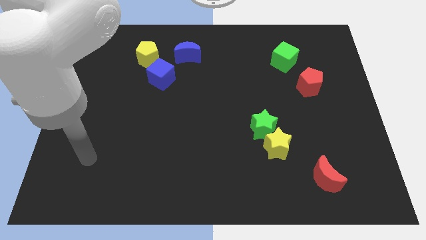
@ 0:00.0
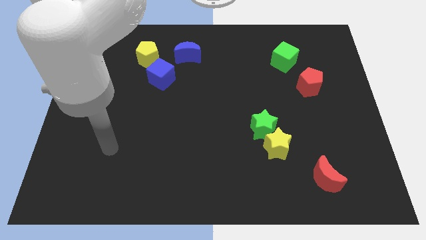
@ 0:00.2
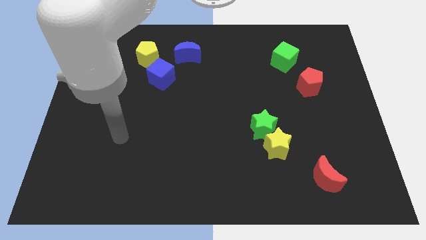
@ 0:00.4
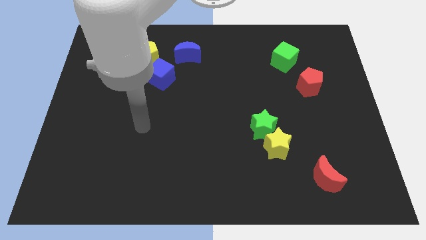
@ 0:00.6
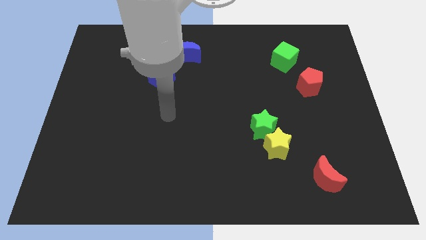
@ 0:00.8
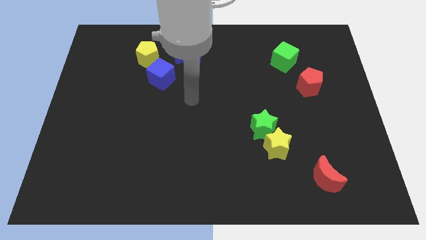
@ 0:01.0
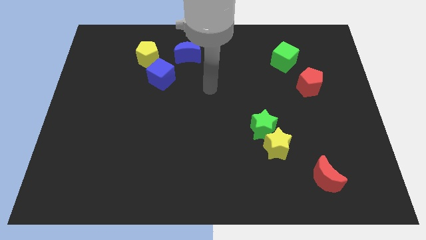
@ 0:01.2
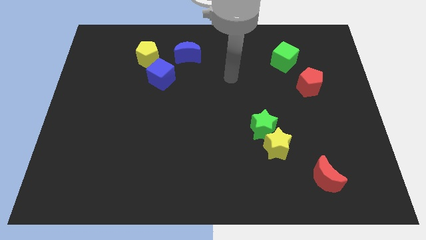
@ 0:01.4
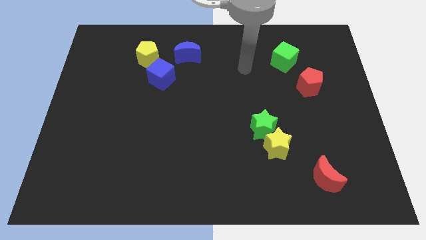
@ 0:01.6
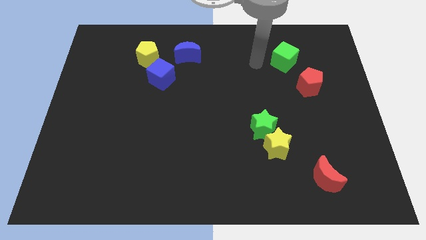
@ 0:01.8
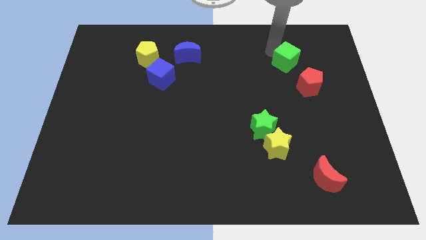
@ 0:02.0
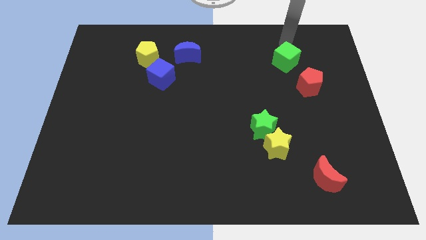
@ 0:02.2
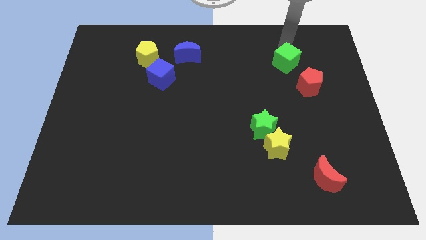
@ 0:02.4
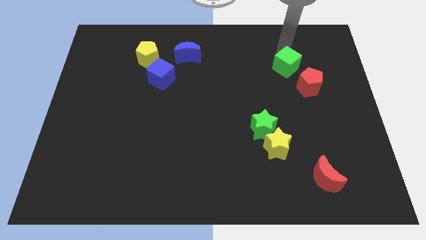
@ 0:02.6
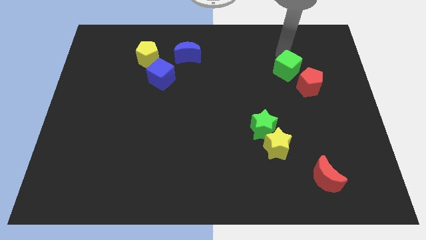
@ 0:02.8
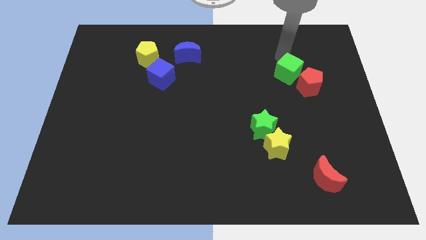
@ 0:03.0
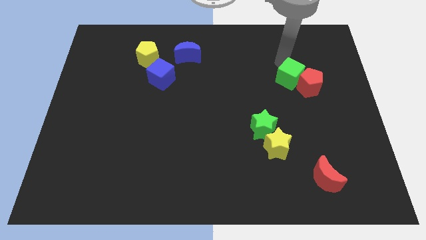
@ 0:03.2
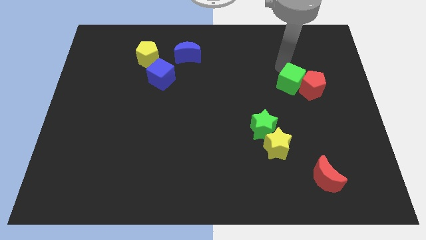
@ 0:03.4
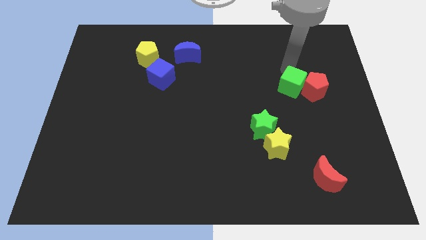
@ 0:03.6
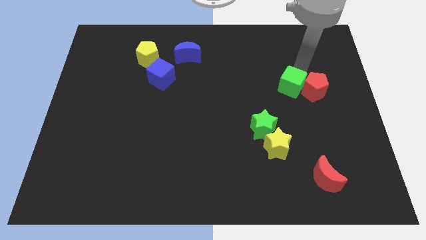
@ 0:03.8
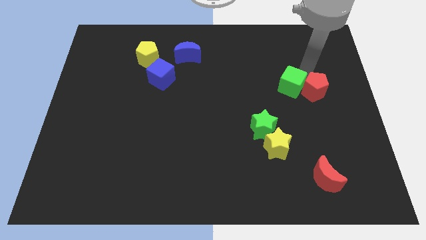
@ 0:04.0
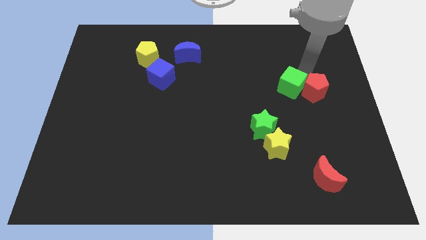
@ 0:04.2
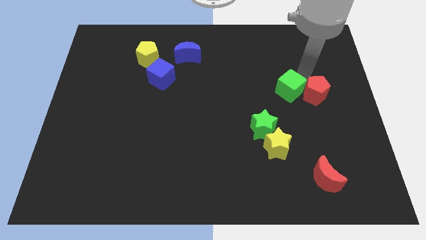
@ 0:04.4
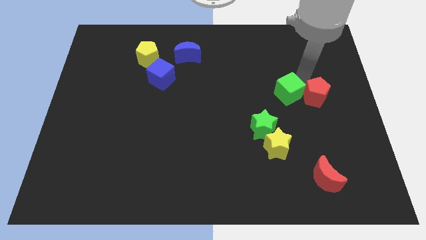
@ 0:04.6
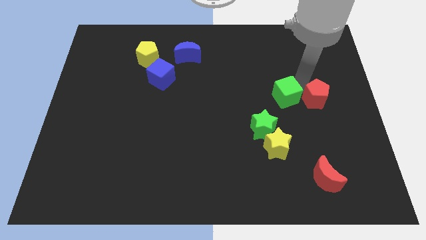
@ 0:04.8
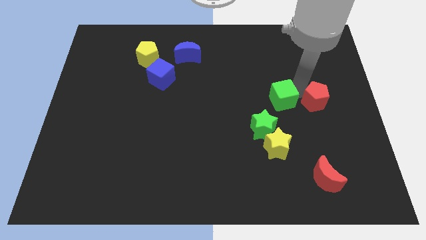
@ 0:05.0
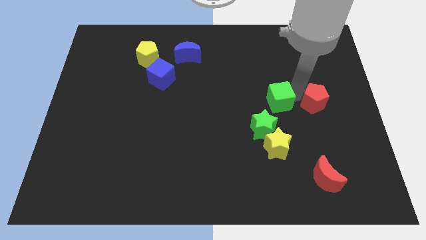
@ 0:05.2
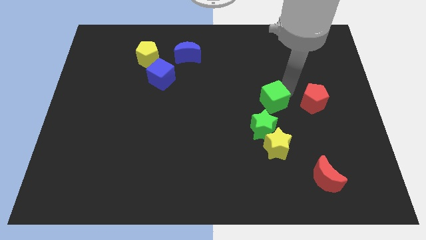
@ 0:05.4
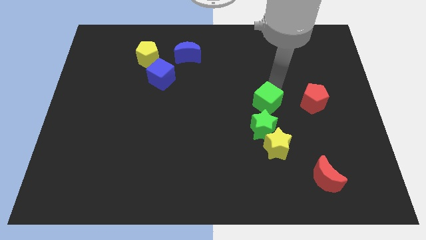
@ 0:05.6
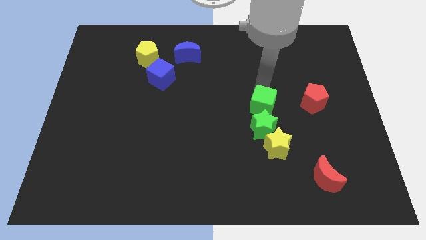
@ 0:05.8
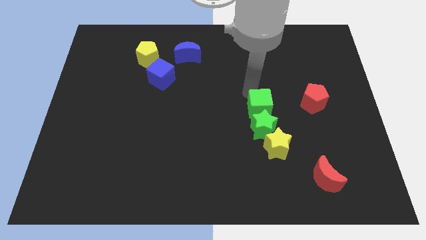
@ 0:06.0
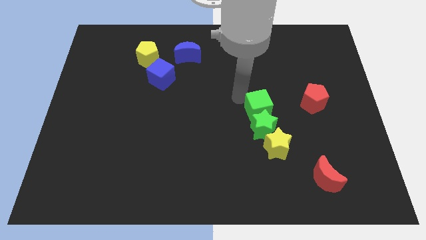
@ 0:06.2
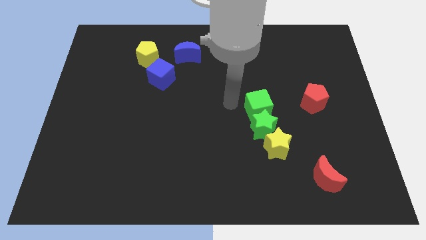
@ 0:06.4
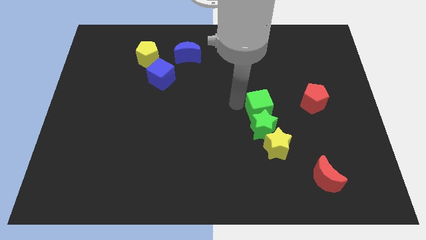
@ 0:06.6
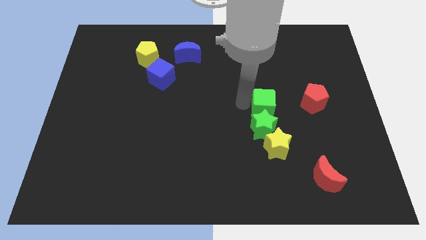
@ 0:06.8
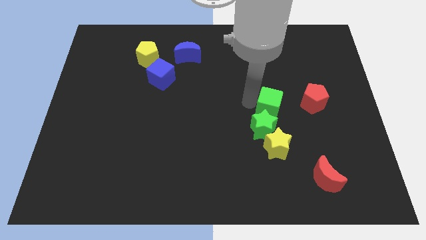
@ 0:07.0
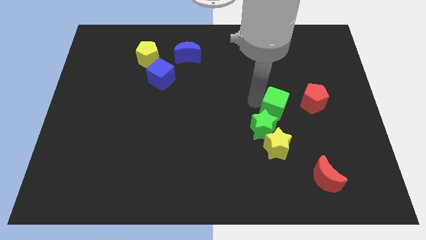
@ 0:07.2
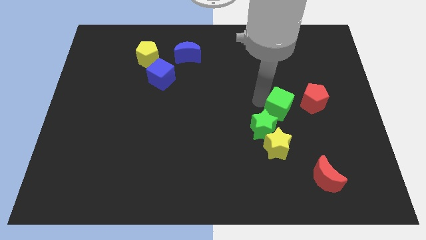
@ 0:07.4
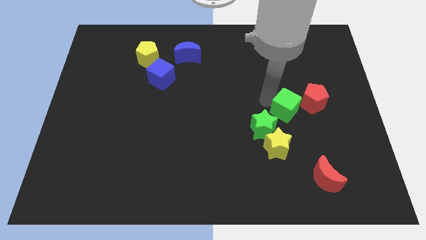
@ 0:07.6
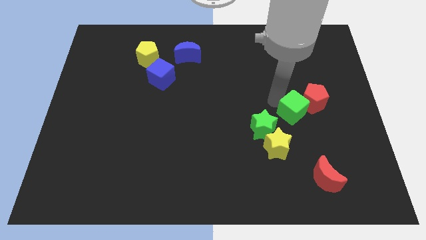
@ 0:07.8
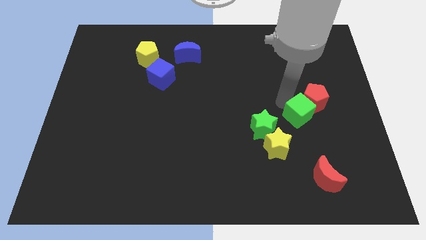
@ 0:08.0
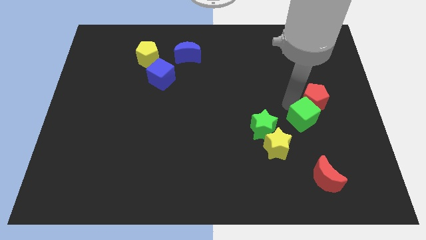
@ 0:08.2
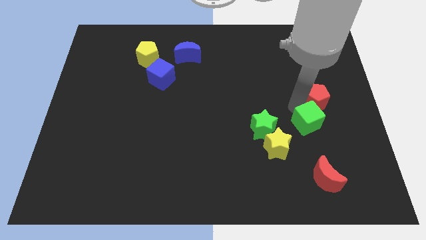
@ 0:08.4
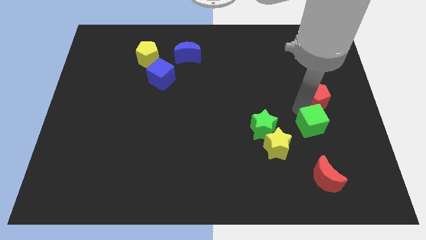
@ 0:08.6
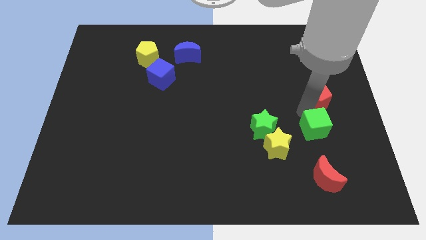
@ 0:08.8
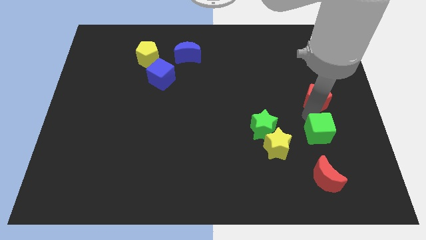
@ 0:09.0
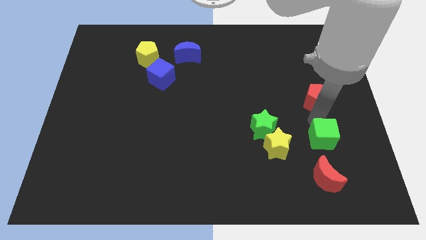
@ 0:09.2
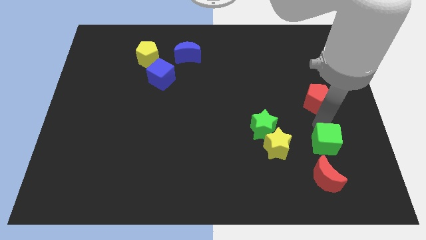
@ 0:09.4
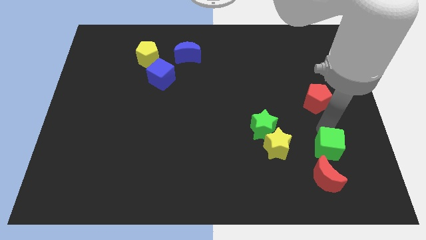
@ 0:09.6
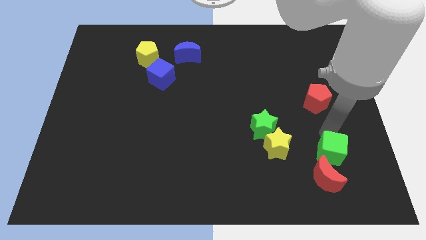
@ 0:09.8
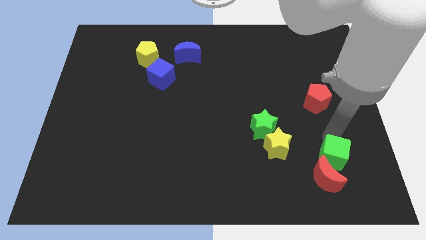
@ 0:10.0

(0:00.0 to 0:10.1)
push the green cube to the red moon

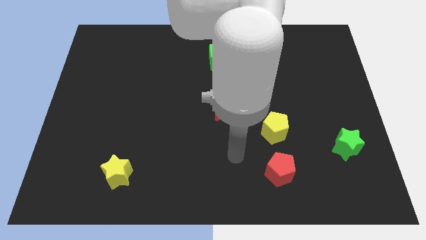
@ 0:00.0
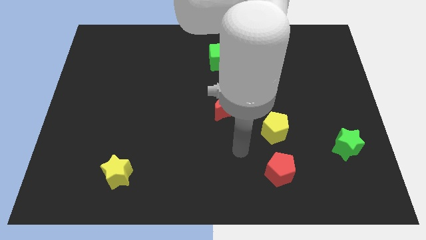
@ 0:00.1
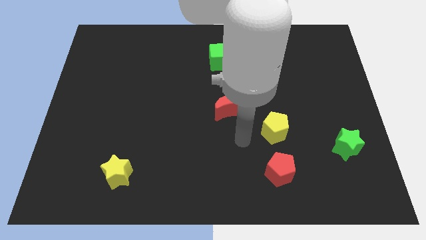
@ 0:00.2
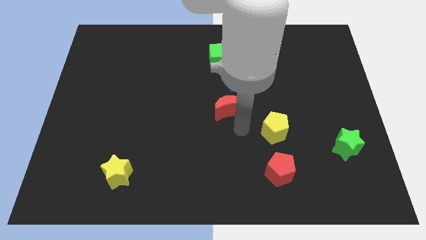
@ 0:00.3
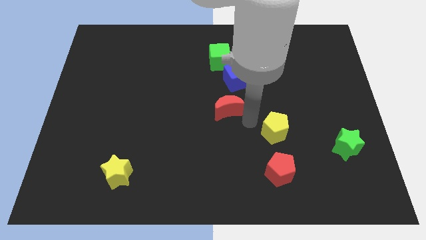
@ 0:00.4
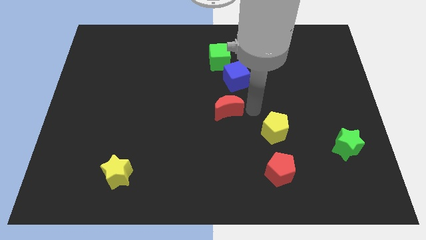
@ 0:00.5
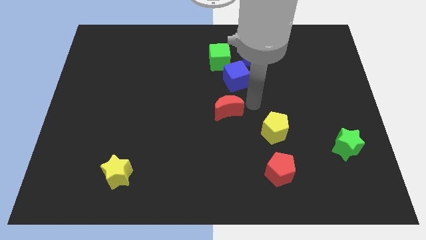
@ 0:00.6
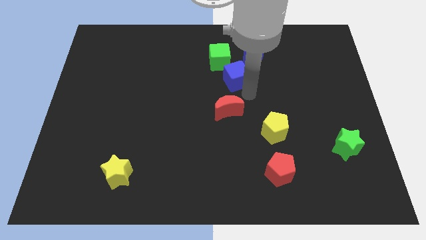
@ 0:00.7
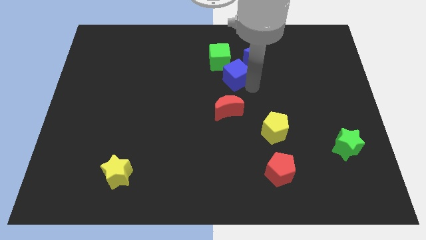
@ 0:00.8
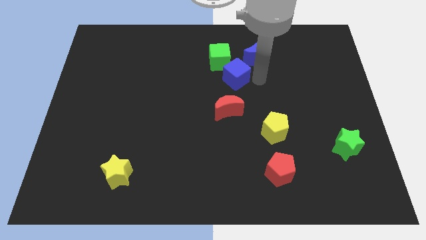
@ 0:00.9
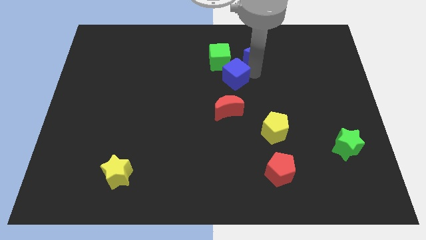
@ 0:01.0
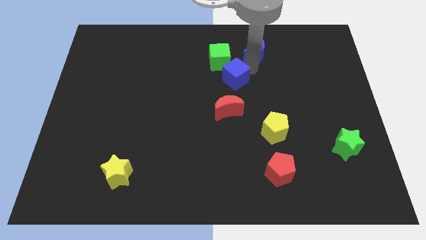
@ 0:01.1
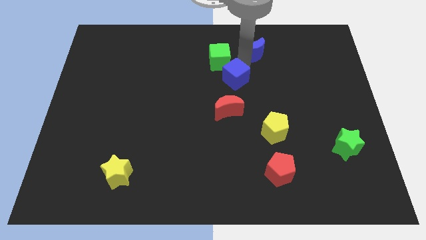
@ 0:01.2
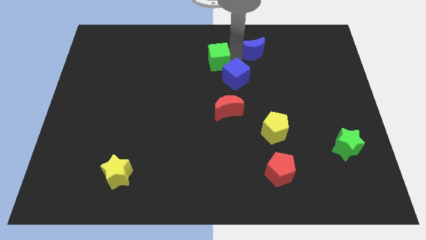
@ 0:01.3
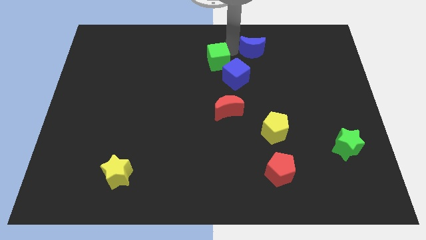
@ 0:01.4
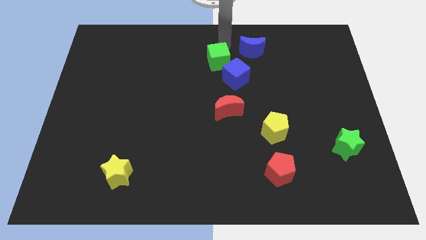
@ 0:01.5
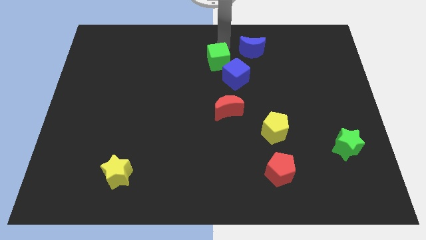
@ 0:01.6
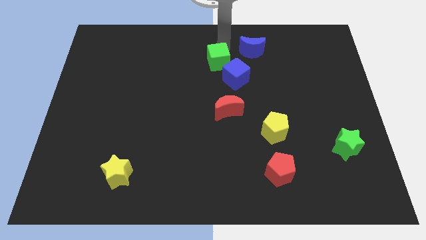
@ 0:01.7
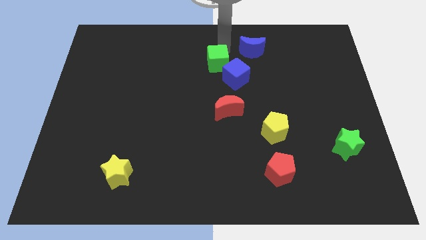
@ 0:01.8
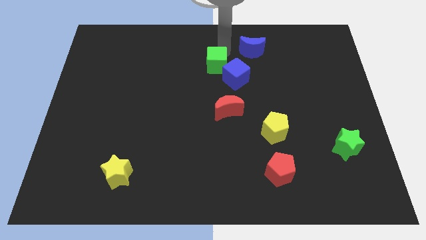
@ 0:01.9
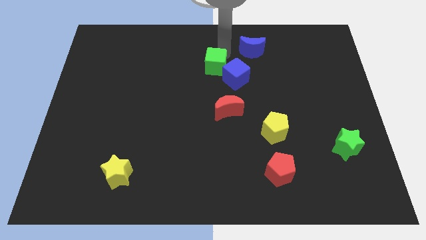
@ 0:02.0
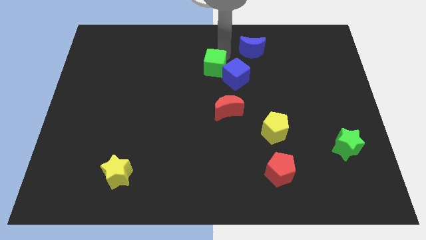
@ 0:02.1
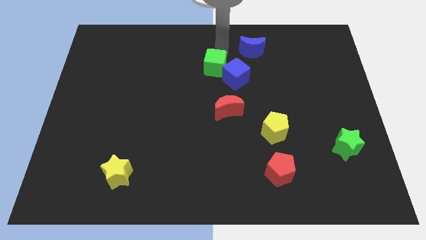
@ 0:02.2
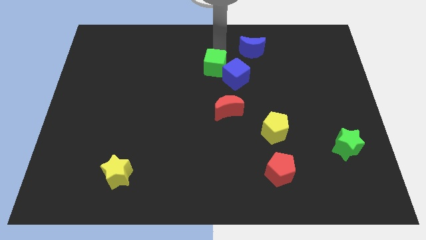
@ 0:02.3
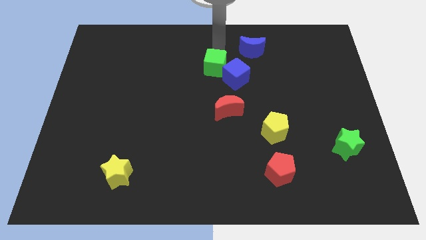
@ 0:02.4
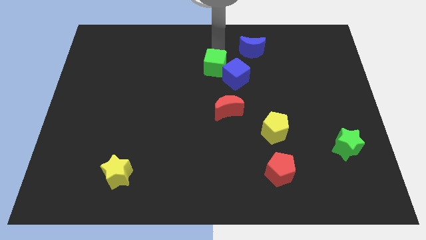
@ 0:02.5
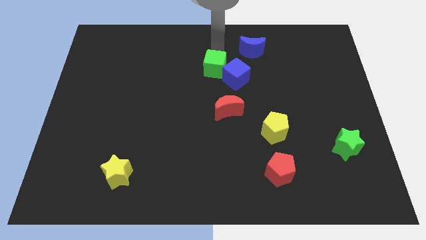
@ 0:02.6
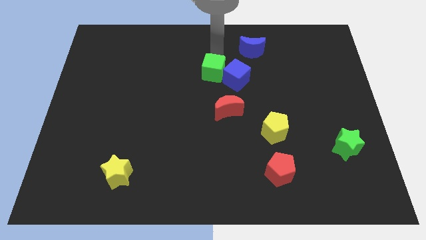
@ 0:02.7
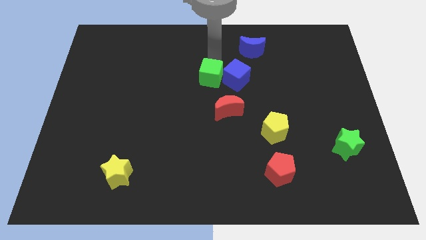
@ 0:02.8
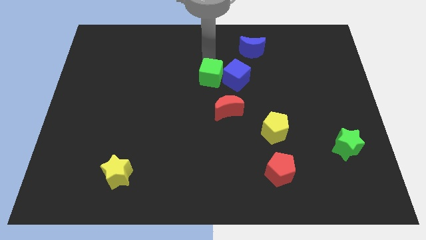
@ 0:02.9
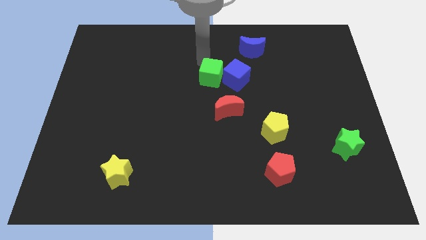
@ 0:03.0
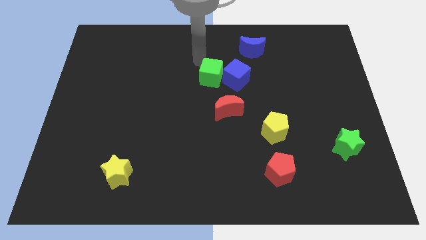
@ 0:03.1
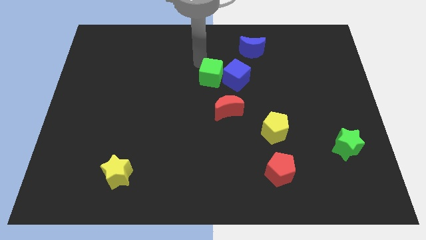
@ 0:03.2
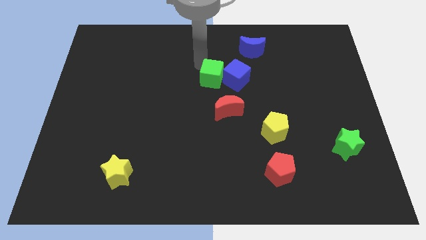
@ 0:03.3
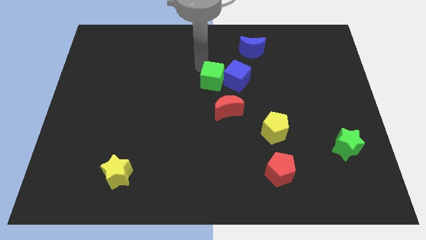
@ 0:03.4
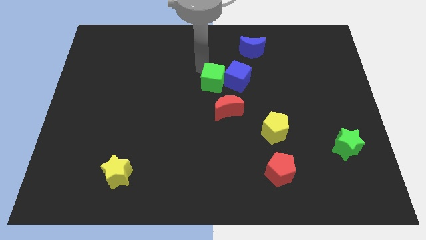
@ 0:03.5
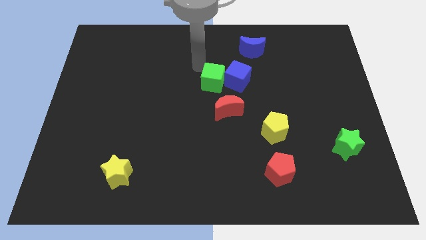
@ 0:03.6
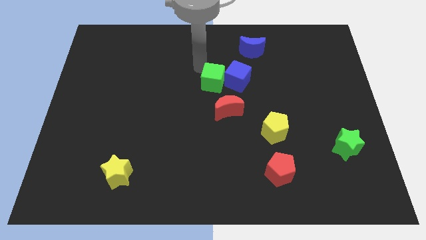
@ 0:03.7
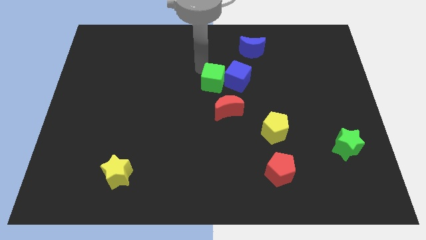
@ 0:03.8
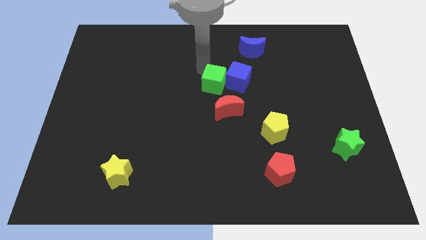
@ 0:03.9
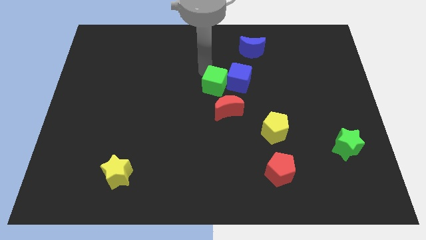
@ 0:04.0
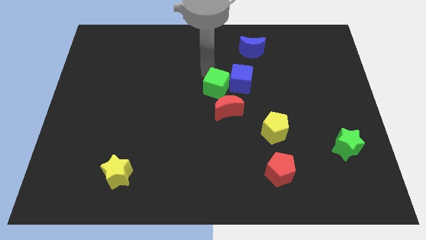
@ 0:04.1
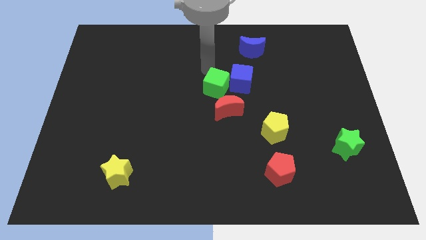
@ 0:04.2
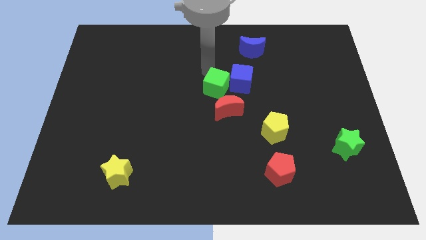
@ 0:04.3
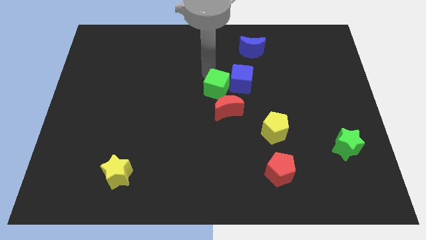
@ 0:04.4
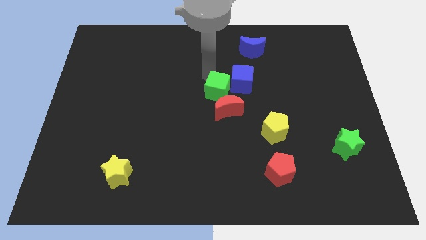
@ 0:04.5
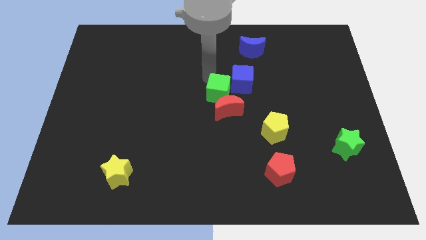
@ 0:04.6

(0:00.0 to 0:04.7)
slide the green cube next to the red moon
